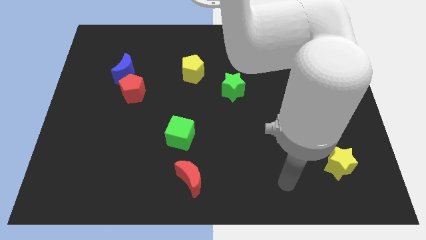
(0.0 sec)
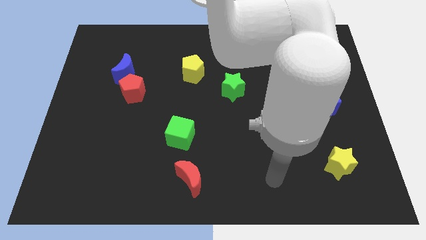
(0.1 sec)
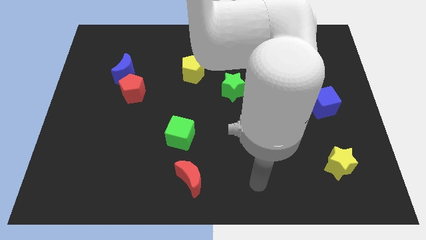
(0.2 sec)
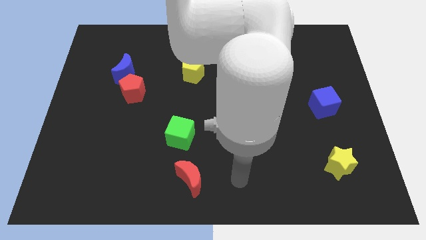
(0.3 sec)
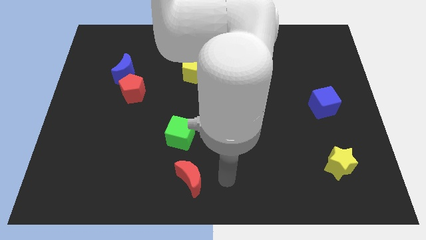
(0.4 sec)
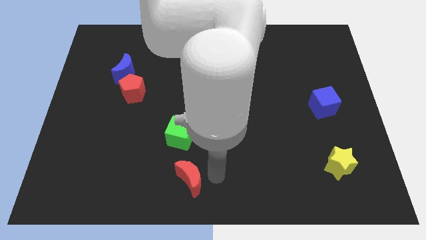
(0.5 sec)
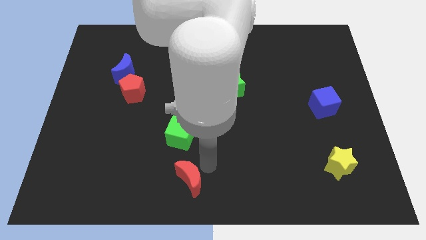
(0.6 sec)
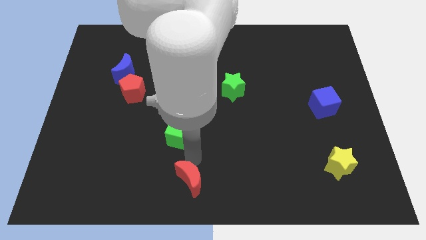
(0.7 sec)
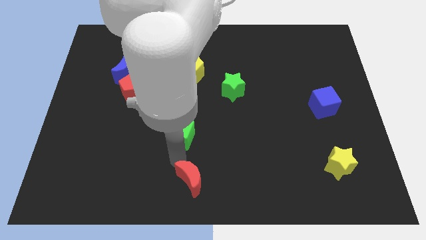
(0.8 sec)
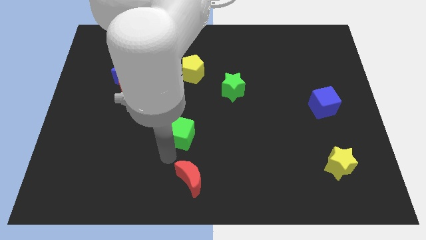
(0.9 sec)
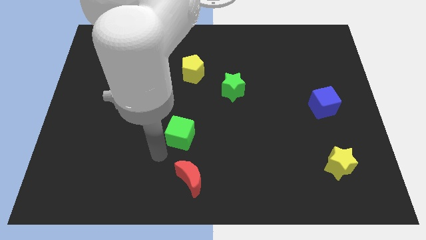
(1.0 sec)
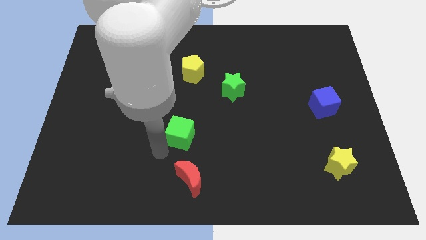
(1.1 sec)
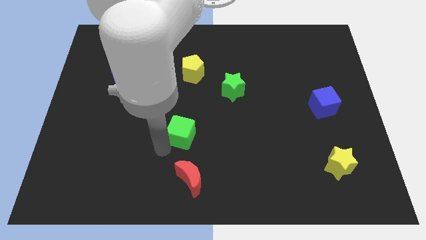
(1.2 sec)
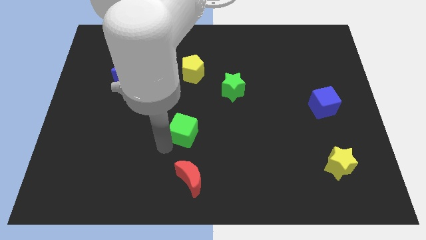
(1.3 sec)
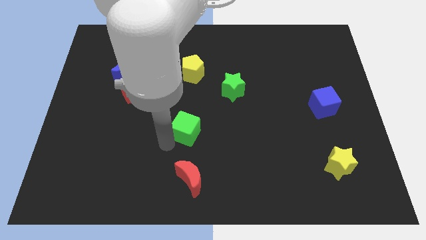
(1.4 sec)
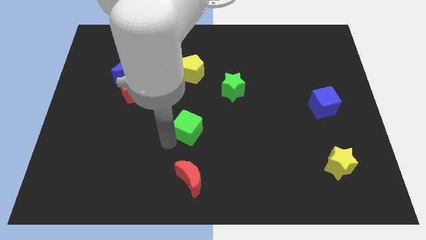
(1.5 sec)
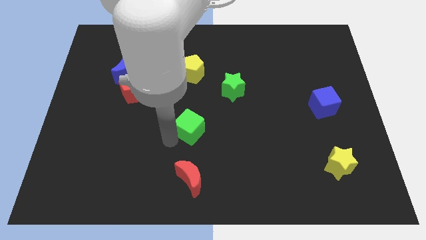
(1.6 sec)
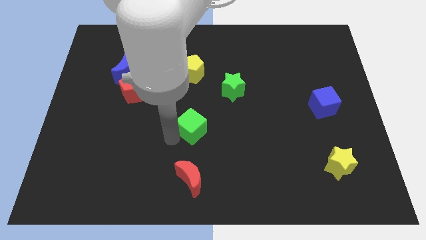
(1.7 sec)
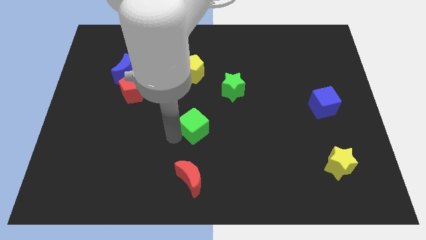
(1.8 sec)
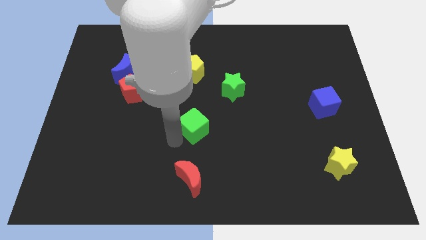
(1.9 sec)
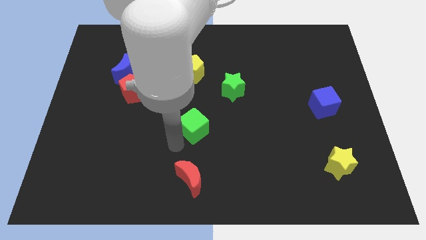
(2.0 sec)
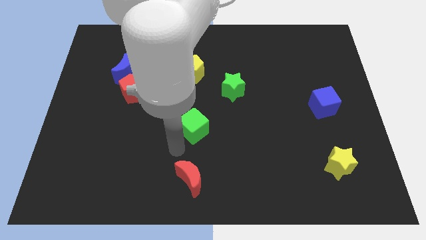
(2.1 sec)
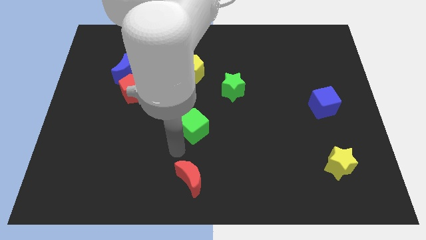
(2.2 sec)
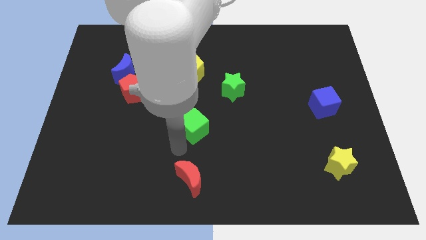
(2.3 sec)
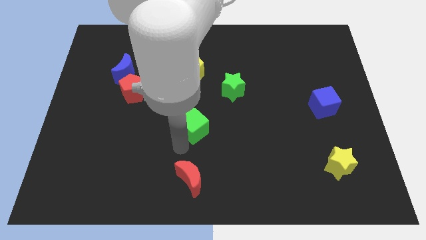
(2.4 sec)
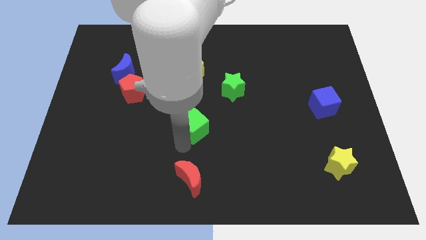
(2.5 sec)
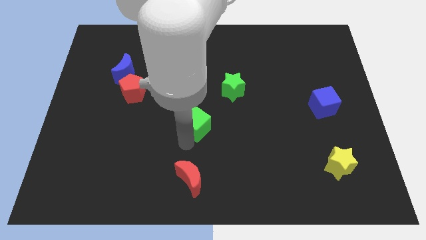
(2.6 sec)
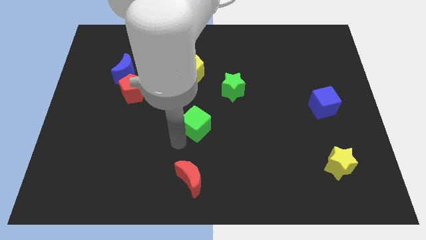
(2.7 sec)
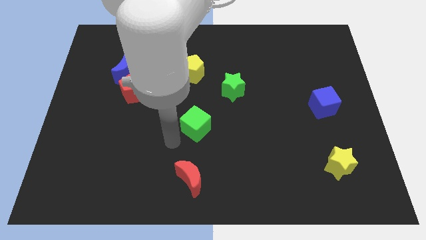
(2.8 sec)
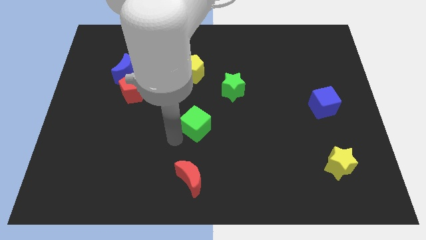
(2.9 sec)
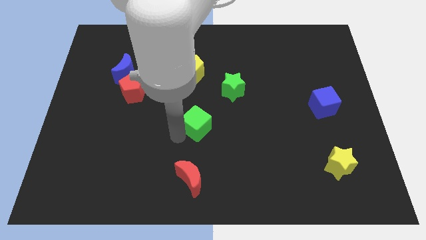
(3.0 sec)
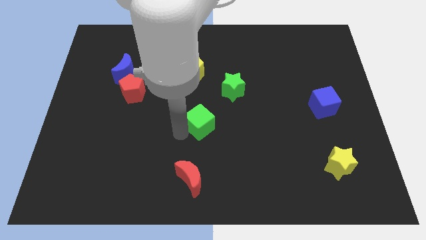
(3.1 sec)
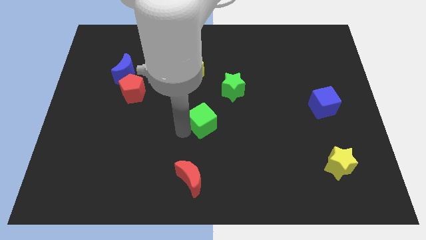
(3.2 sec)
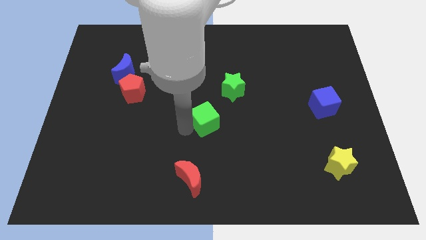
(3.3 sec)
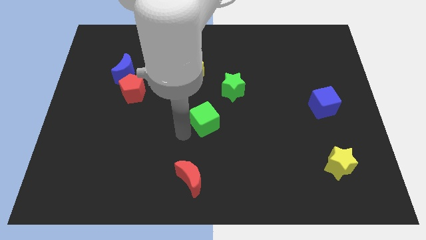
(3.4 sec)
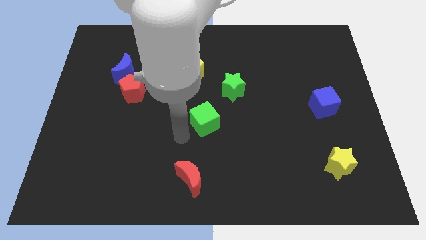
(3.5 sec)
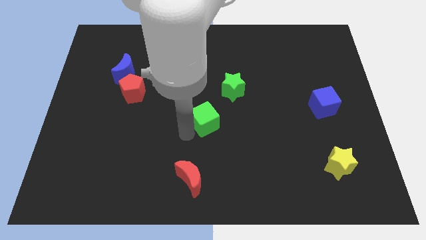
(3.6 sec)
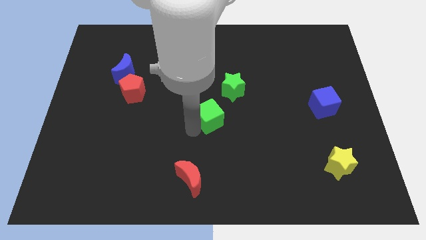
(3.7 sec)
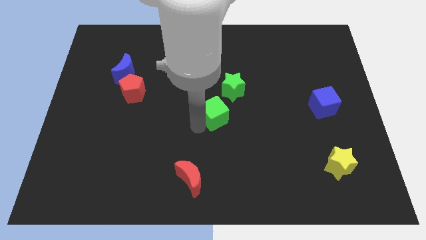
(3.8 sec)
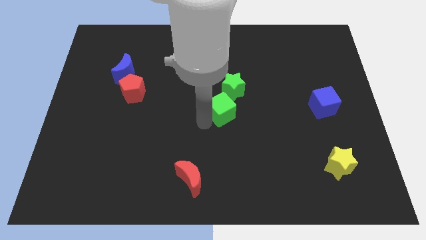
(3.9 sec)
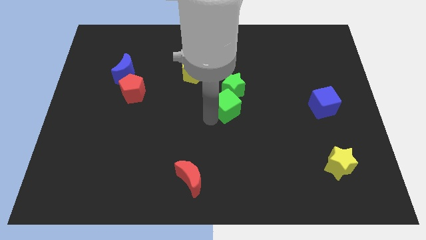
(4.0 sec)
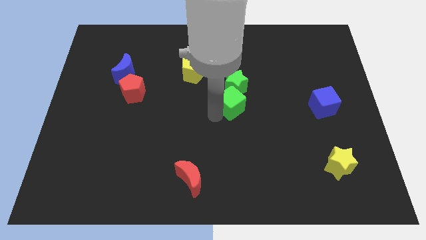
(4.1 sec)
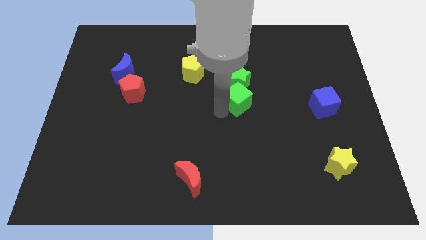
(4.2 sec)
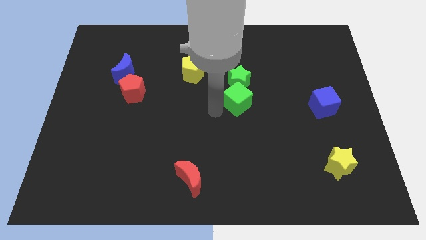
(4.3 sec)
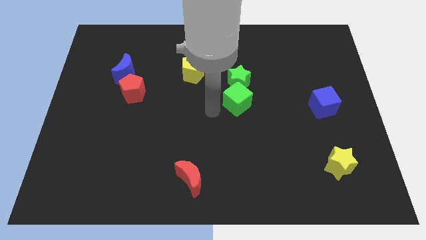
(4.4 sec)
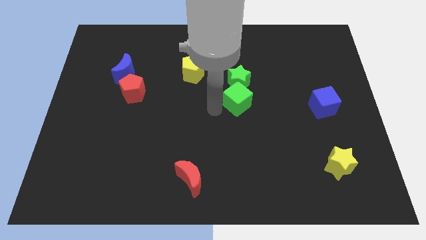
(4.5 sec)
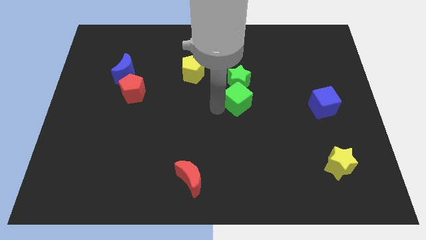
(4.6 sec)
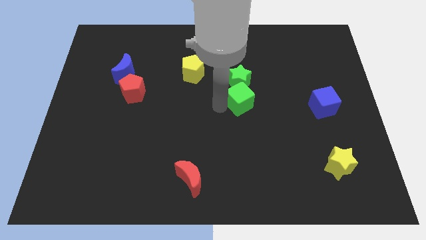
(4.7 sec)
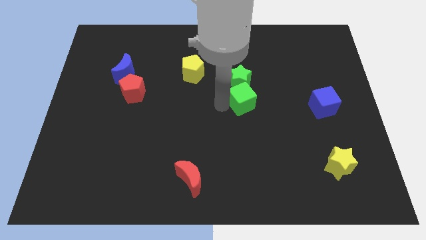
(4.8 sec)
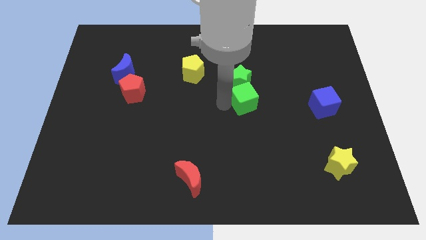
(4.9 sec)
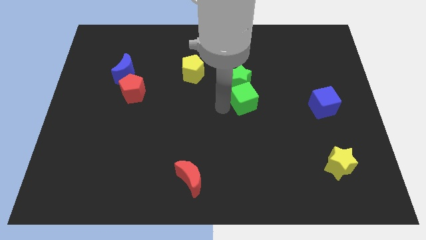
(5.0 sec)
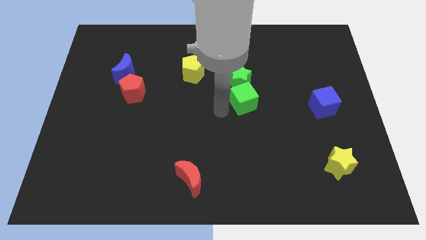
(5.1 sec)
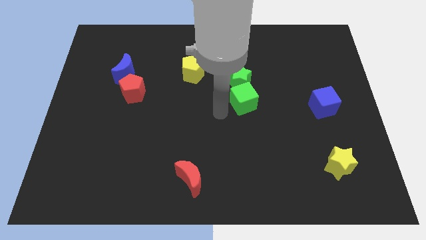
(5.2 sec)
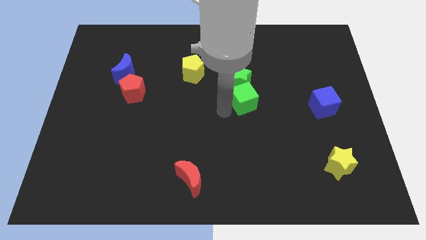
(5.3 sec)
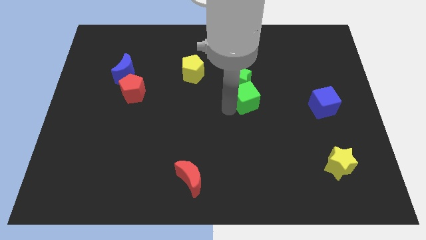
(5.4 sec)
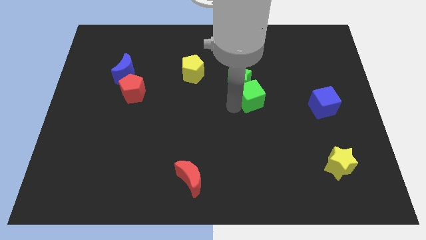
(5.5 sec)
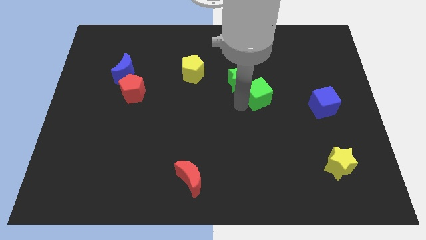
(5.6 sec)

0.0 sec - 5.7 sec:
push the green cube up and to the right diagonally

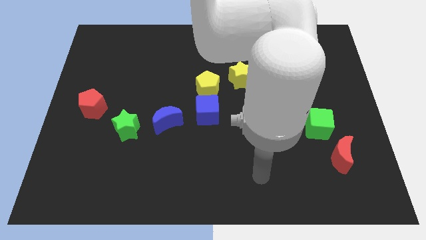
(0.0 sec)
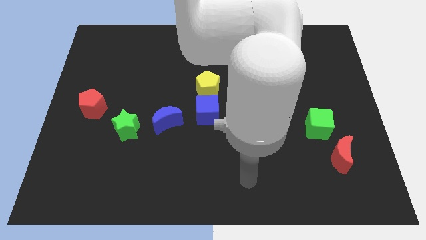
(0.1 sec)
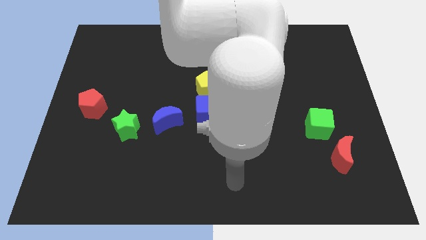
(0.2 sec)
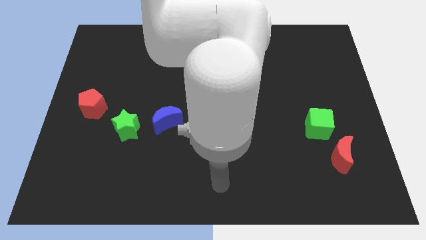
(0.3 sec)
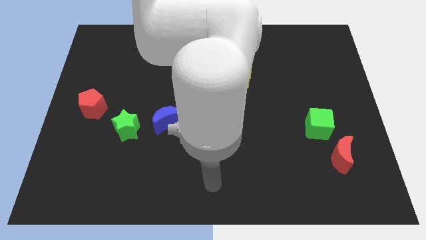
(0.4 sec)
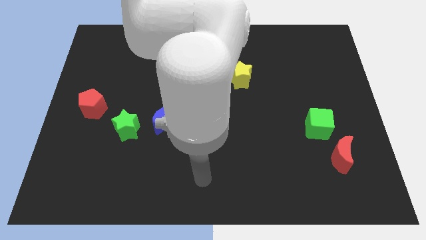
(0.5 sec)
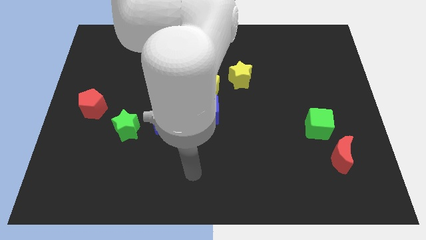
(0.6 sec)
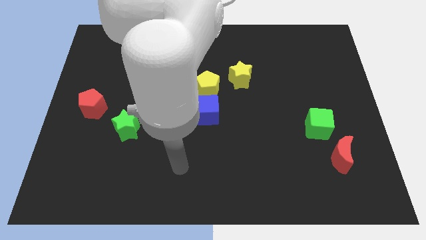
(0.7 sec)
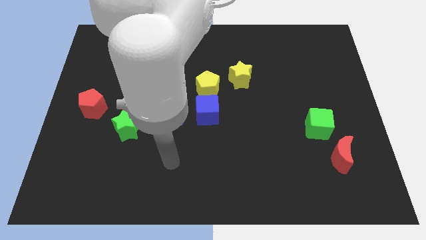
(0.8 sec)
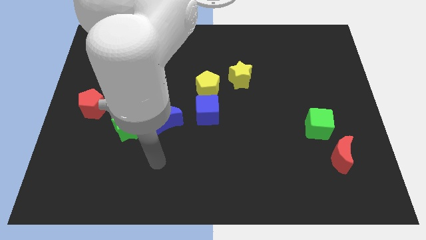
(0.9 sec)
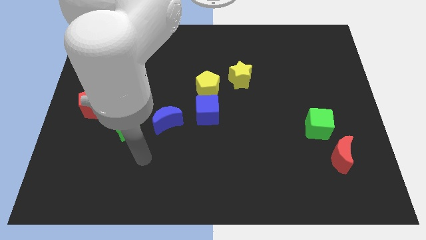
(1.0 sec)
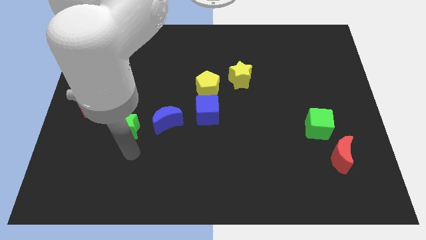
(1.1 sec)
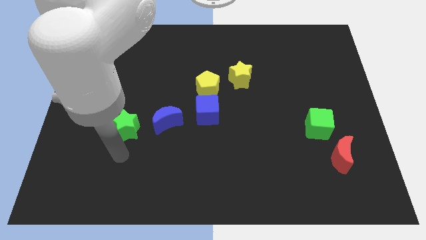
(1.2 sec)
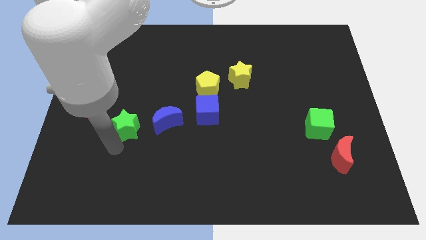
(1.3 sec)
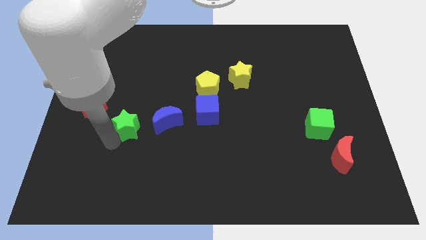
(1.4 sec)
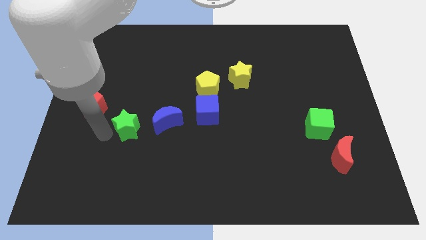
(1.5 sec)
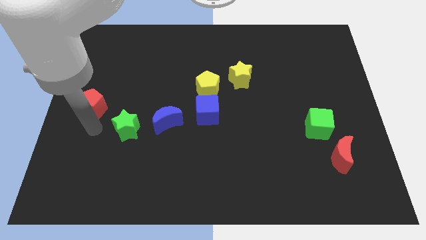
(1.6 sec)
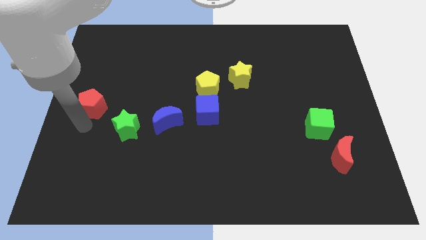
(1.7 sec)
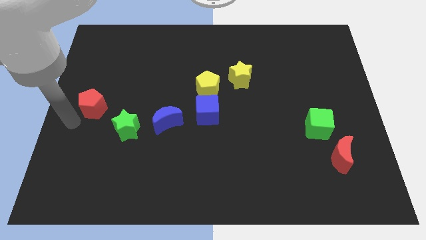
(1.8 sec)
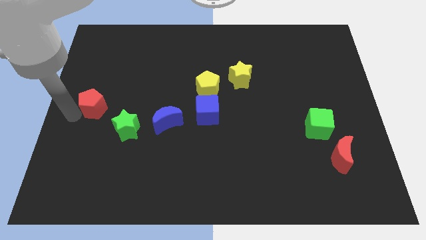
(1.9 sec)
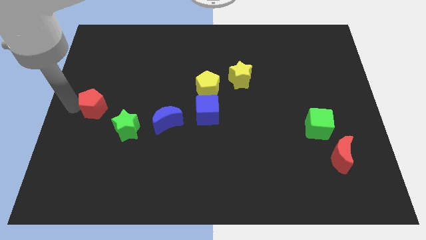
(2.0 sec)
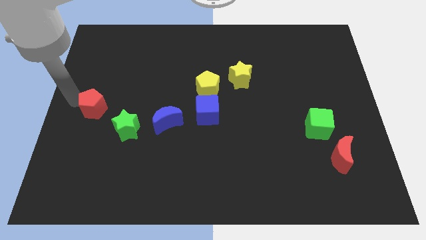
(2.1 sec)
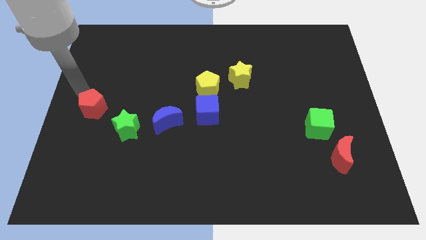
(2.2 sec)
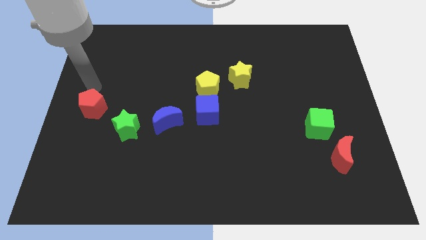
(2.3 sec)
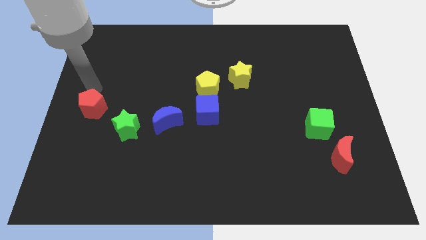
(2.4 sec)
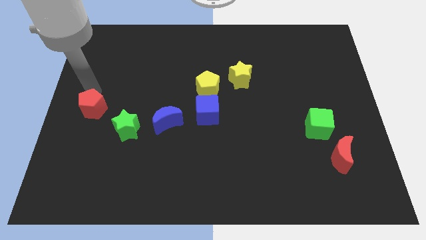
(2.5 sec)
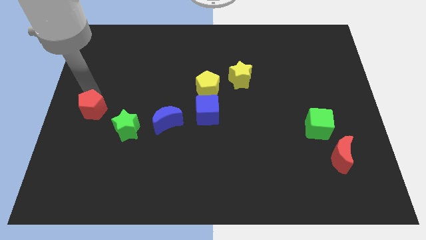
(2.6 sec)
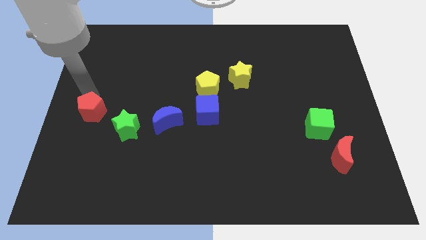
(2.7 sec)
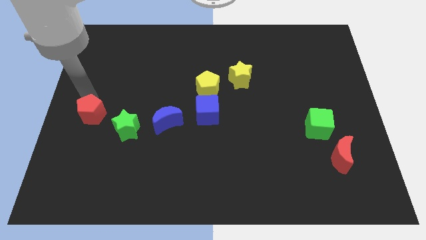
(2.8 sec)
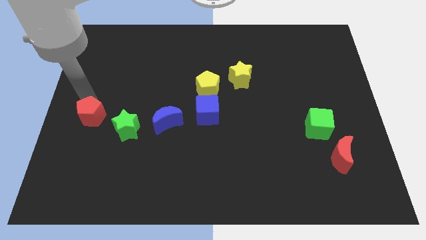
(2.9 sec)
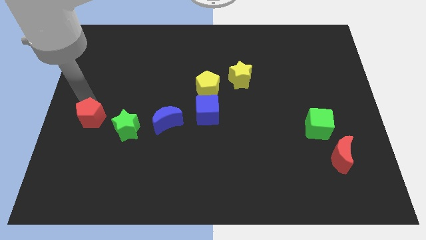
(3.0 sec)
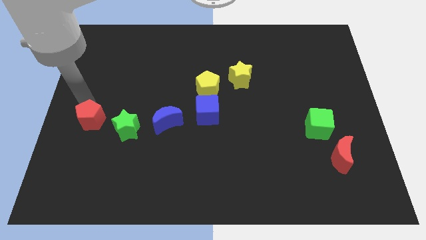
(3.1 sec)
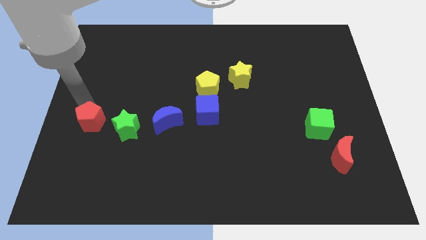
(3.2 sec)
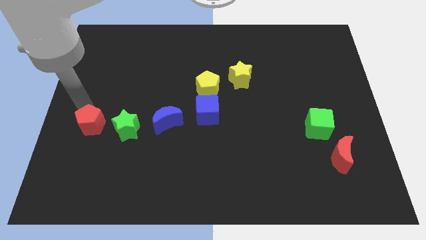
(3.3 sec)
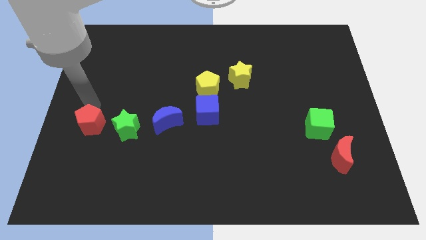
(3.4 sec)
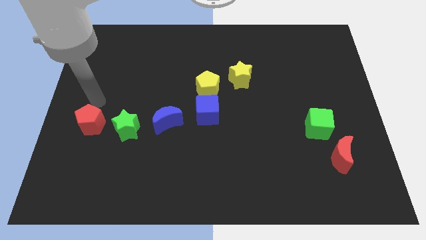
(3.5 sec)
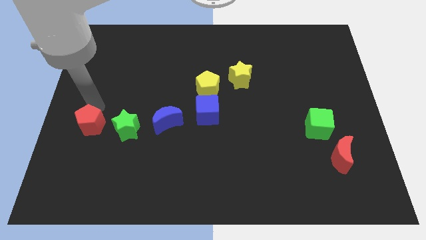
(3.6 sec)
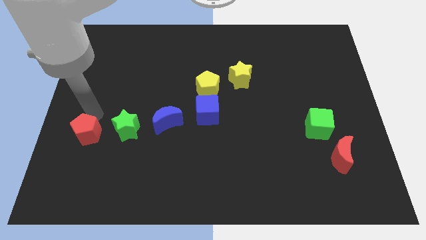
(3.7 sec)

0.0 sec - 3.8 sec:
push the red pentagon downwards a little
